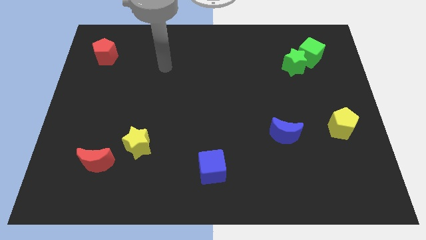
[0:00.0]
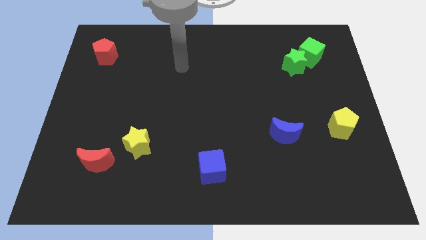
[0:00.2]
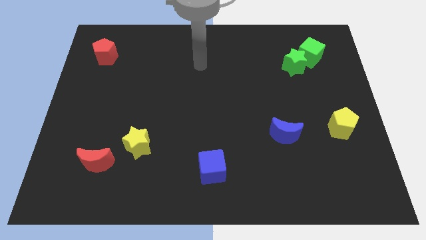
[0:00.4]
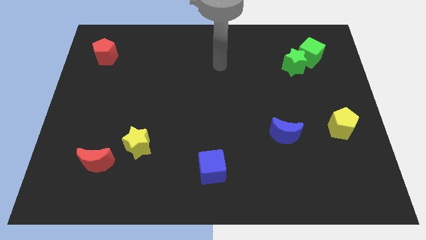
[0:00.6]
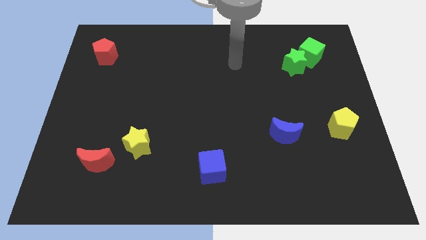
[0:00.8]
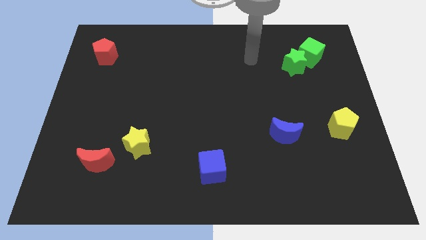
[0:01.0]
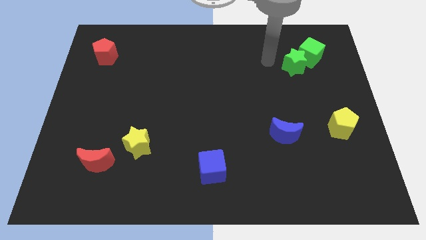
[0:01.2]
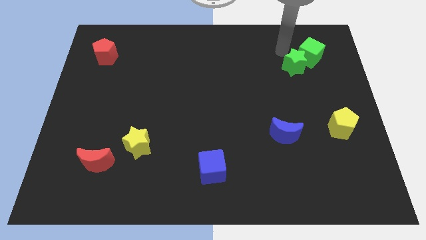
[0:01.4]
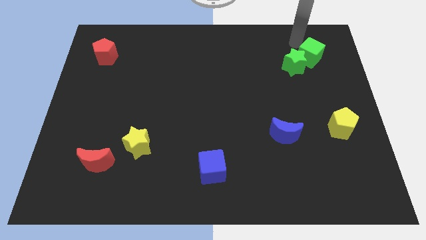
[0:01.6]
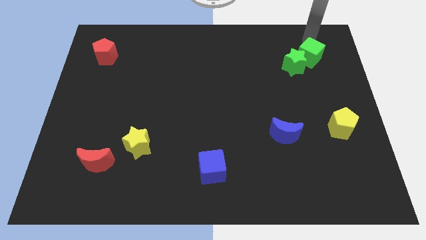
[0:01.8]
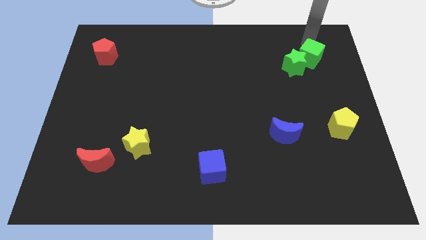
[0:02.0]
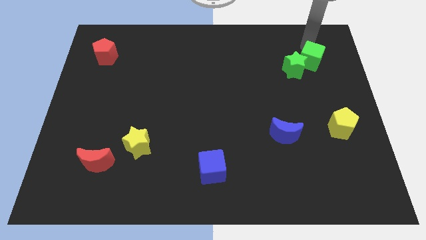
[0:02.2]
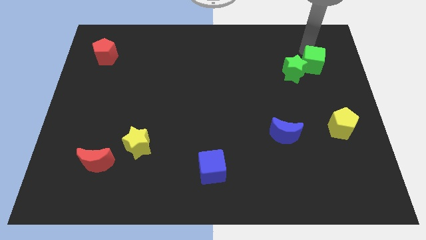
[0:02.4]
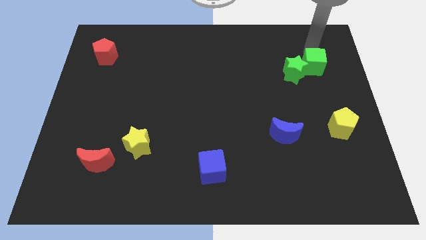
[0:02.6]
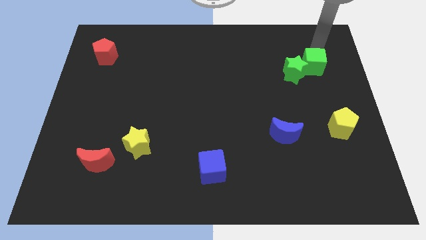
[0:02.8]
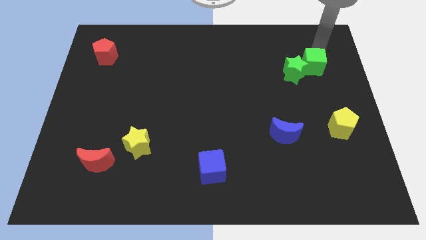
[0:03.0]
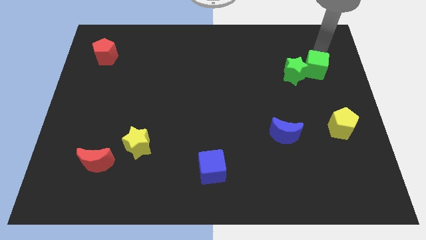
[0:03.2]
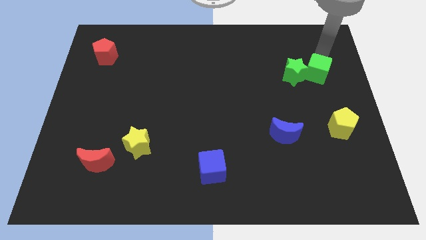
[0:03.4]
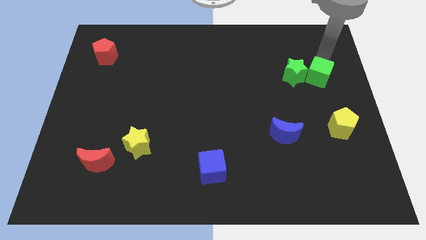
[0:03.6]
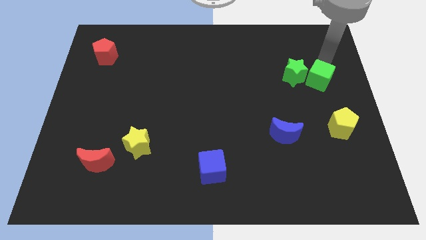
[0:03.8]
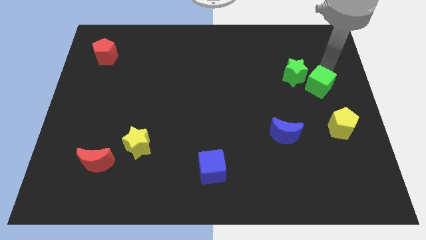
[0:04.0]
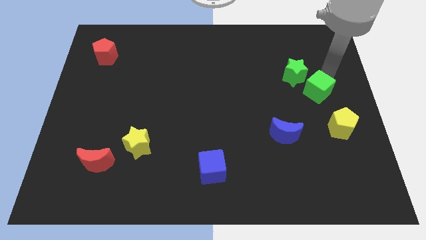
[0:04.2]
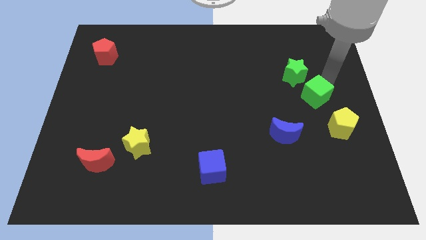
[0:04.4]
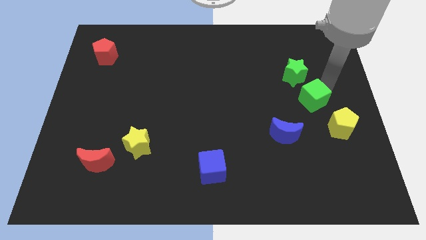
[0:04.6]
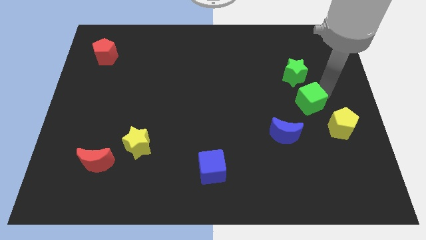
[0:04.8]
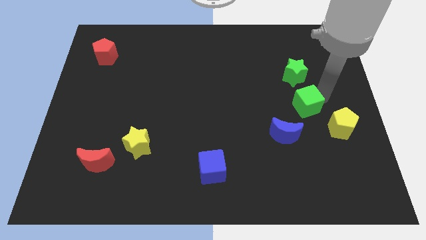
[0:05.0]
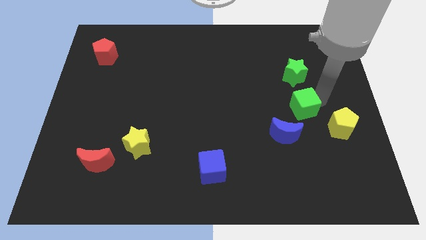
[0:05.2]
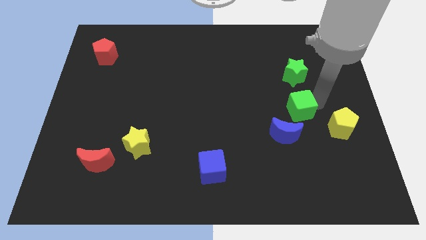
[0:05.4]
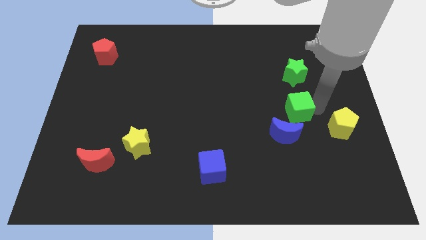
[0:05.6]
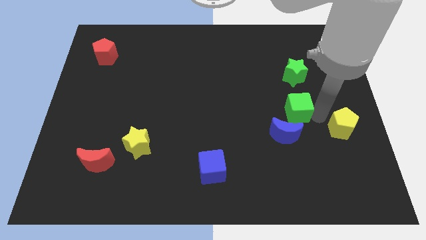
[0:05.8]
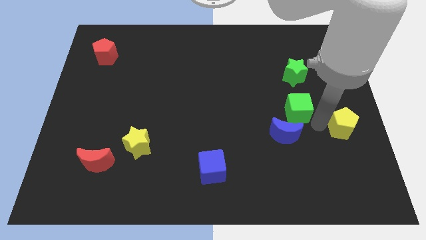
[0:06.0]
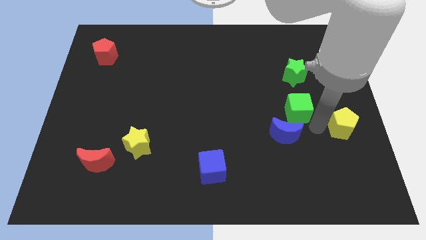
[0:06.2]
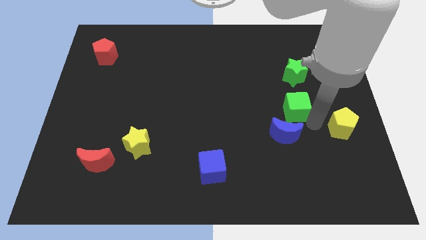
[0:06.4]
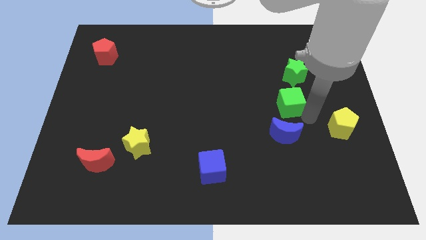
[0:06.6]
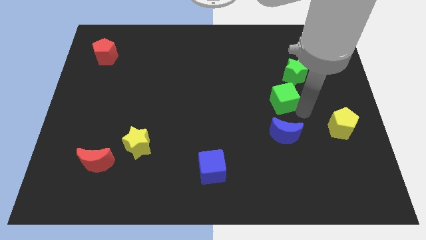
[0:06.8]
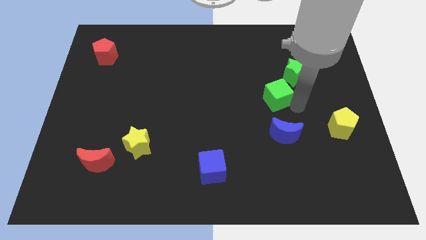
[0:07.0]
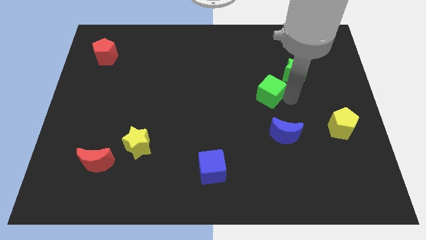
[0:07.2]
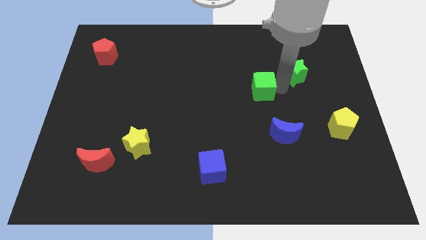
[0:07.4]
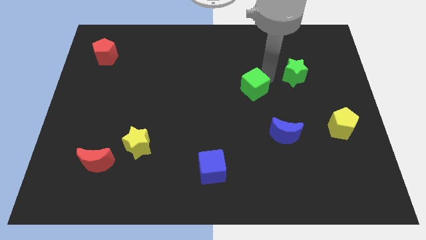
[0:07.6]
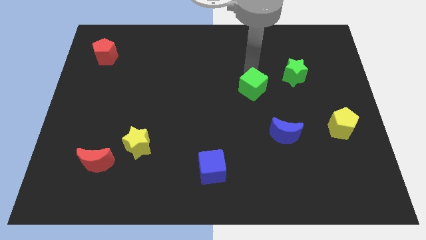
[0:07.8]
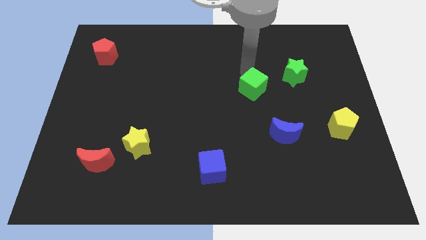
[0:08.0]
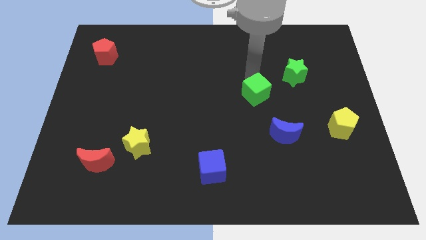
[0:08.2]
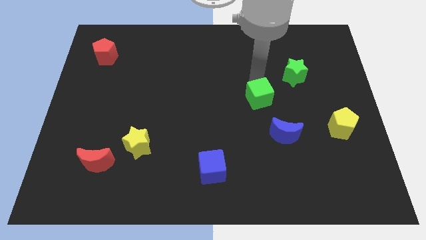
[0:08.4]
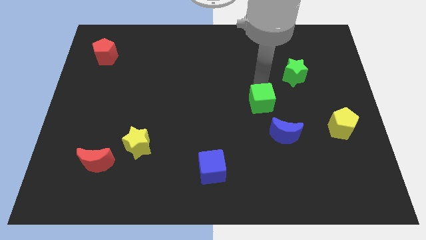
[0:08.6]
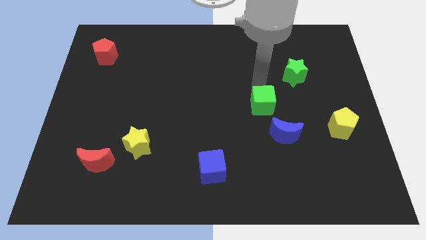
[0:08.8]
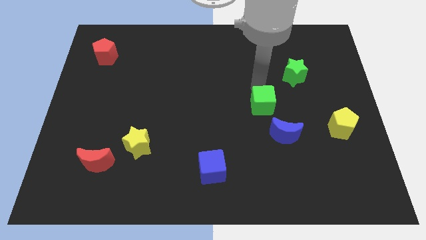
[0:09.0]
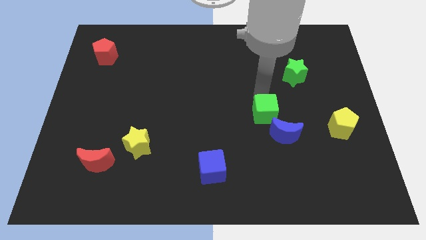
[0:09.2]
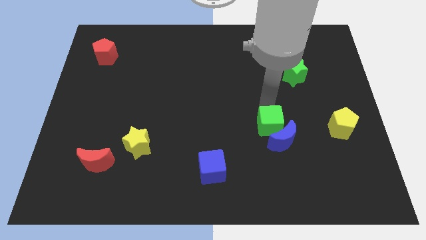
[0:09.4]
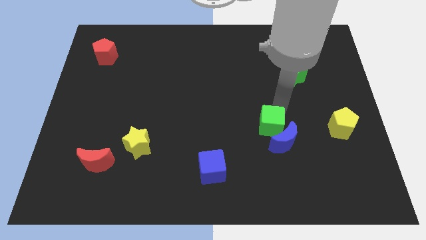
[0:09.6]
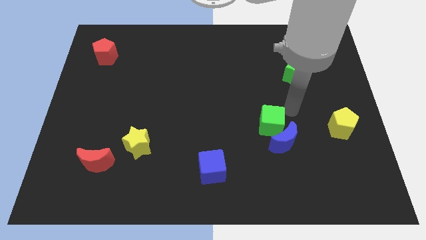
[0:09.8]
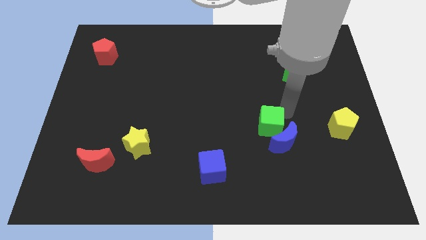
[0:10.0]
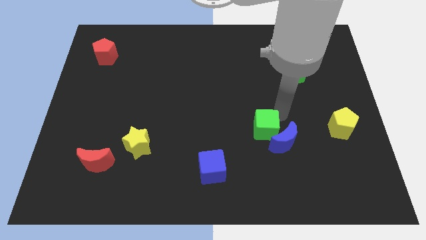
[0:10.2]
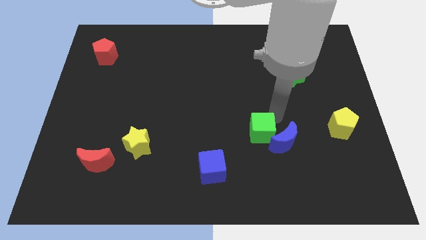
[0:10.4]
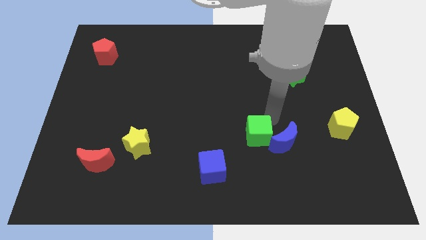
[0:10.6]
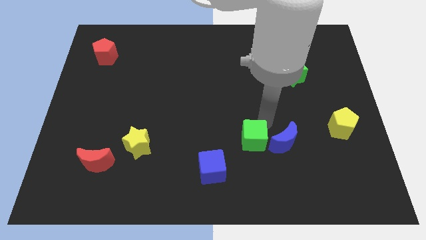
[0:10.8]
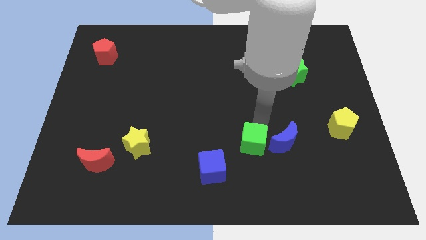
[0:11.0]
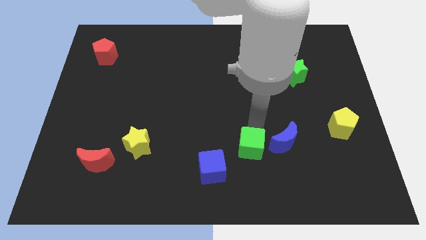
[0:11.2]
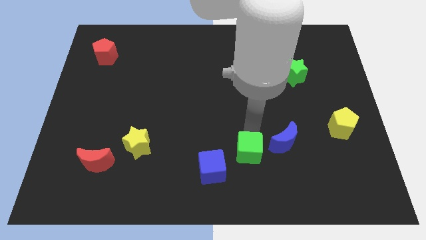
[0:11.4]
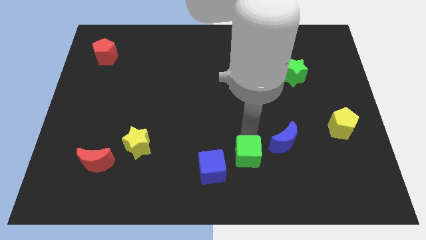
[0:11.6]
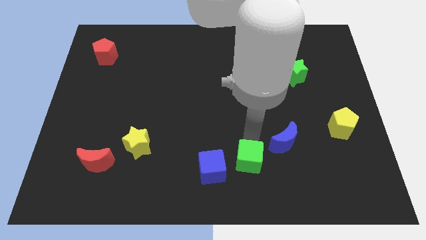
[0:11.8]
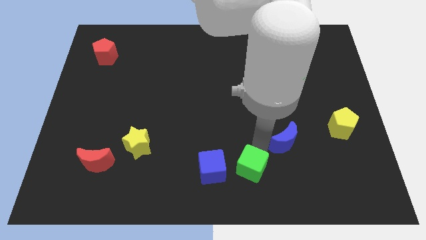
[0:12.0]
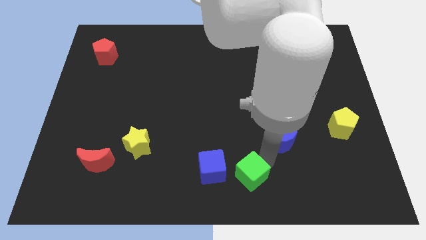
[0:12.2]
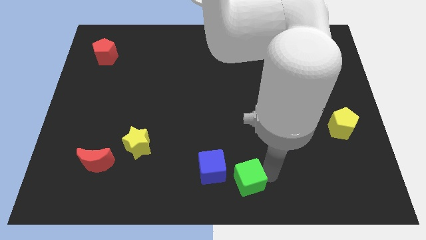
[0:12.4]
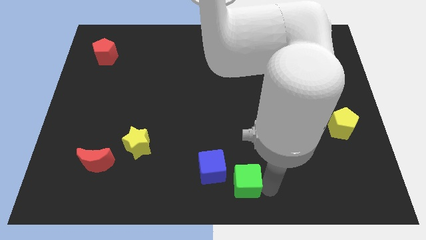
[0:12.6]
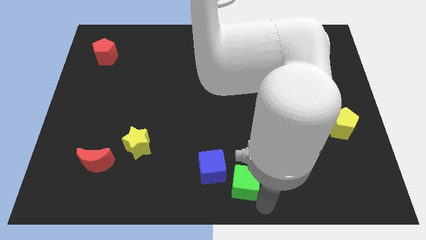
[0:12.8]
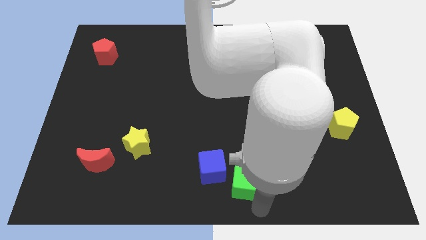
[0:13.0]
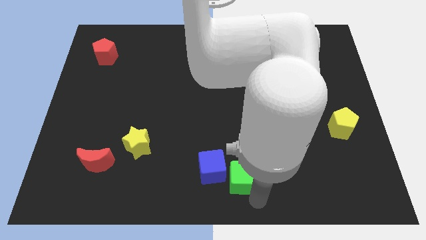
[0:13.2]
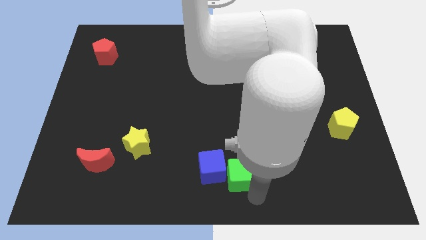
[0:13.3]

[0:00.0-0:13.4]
slide the green cube next to the blue cube
